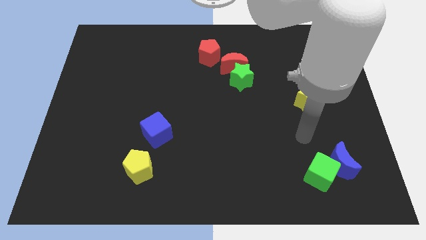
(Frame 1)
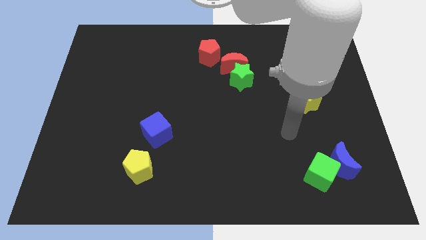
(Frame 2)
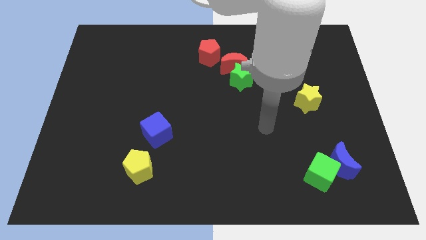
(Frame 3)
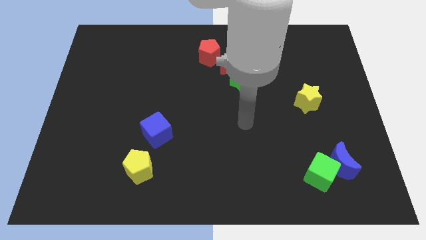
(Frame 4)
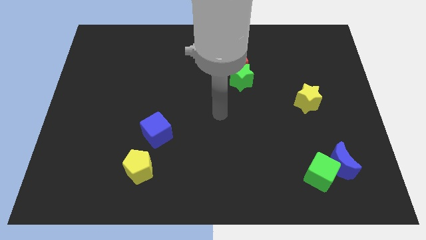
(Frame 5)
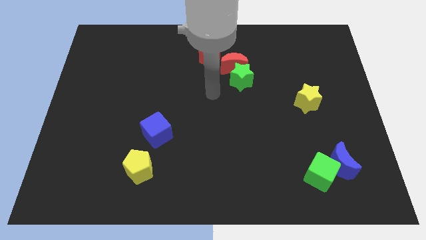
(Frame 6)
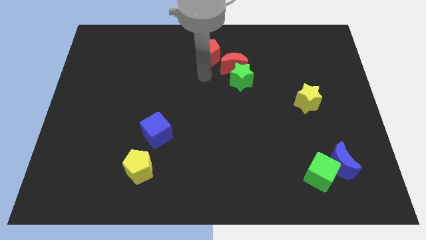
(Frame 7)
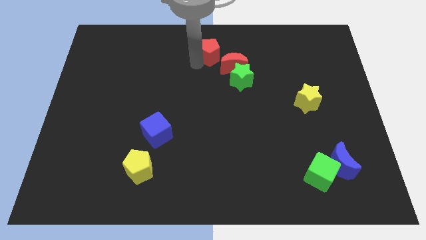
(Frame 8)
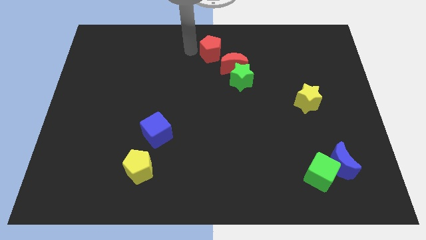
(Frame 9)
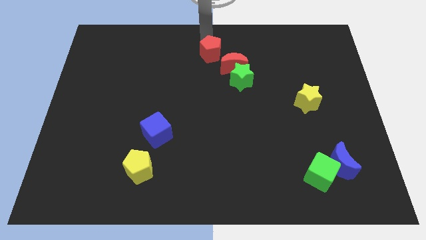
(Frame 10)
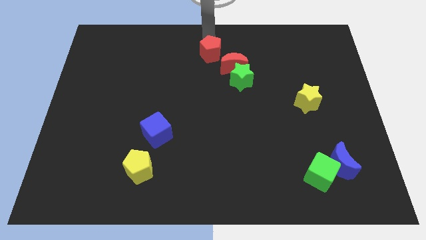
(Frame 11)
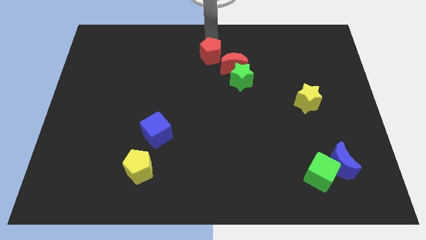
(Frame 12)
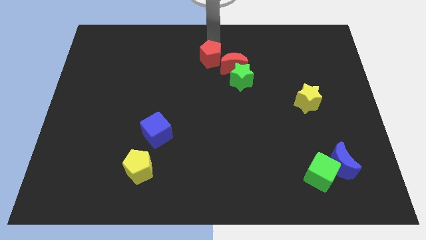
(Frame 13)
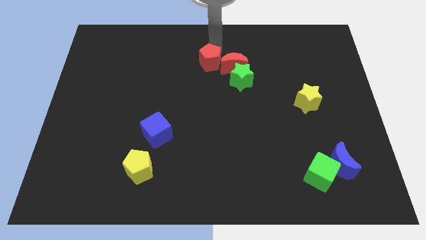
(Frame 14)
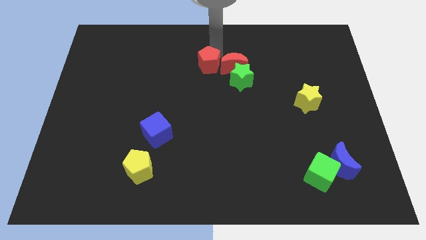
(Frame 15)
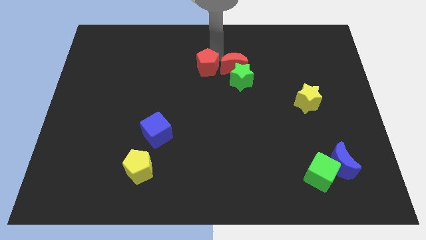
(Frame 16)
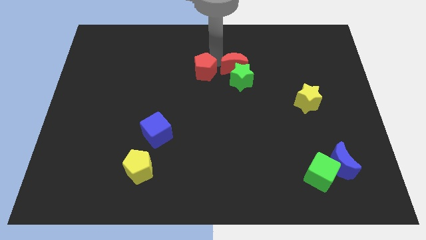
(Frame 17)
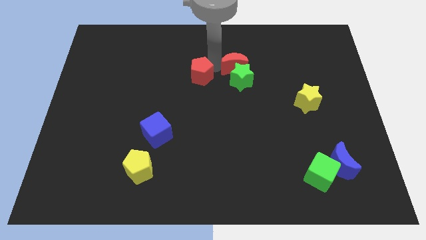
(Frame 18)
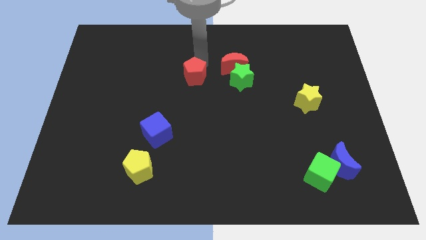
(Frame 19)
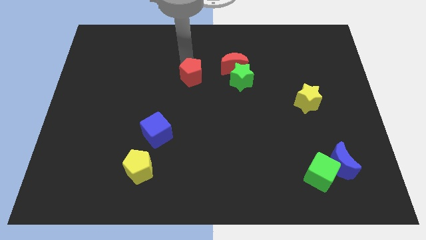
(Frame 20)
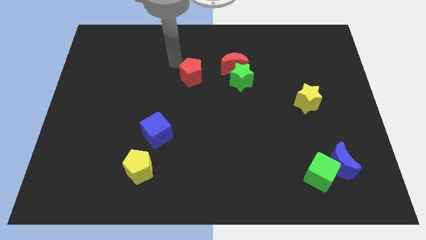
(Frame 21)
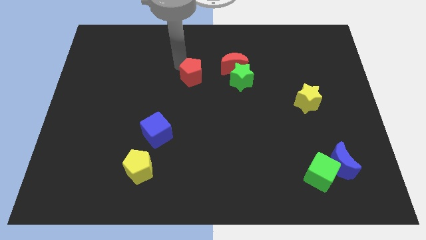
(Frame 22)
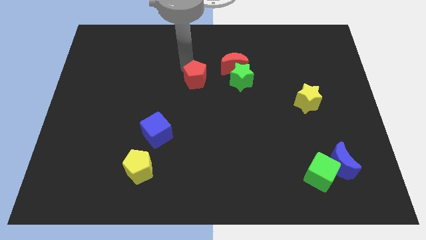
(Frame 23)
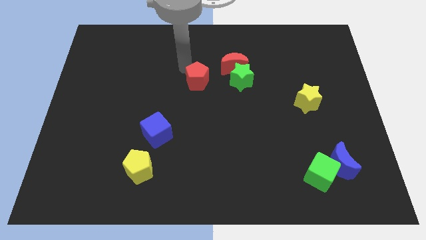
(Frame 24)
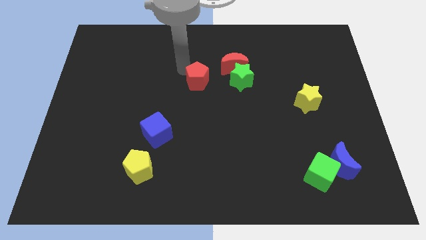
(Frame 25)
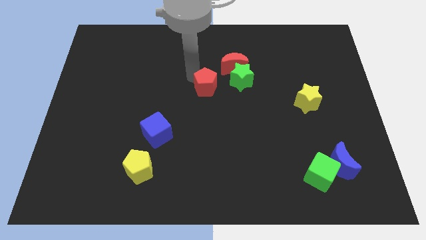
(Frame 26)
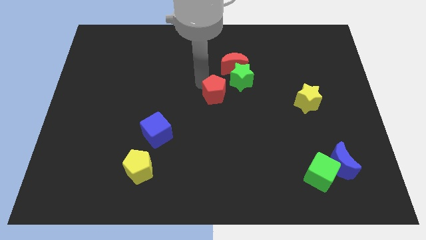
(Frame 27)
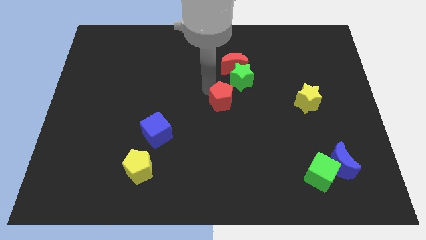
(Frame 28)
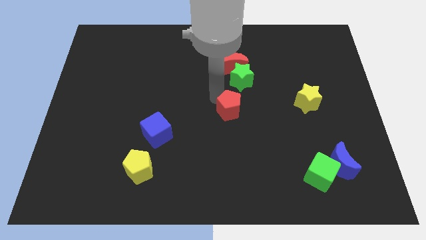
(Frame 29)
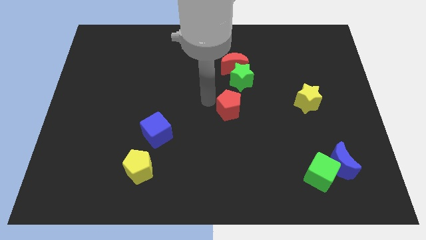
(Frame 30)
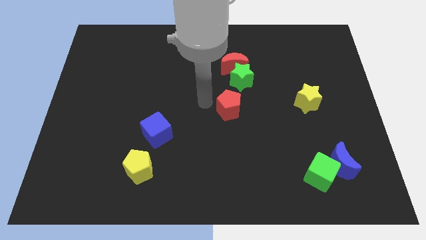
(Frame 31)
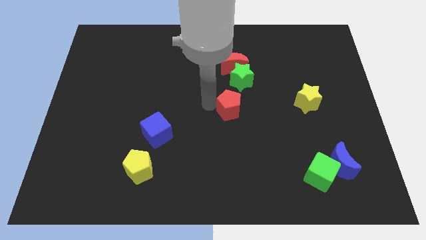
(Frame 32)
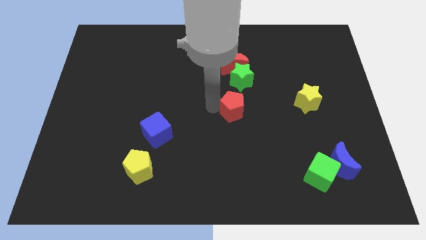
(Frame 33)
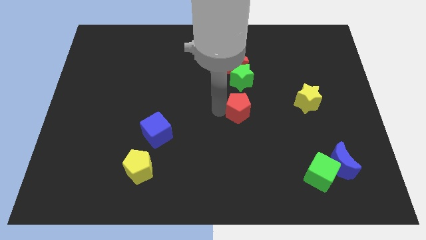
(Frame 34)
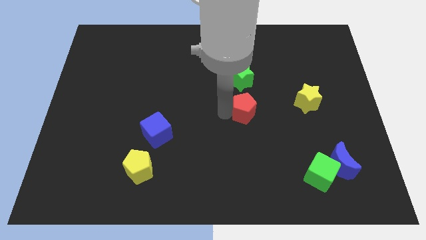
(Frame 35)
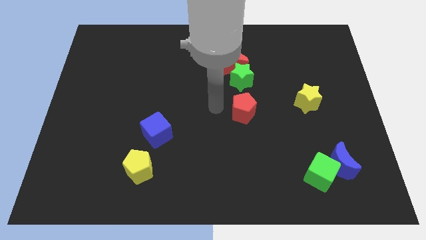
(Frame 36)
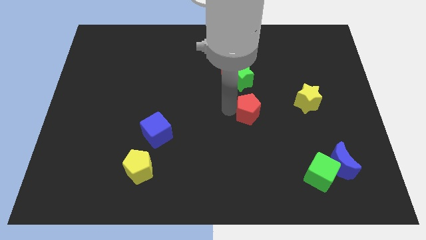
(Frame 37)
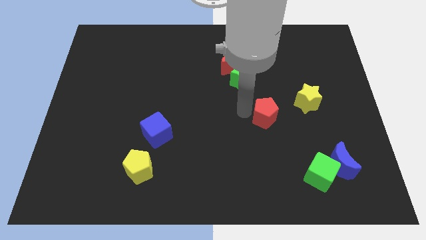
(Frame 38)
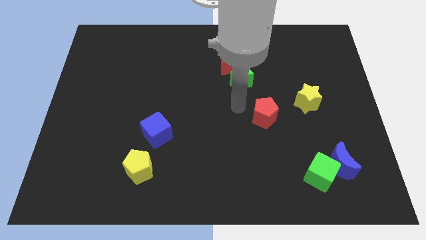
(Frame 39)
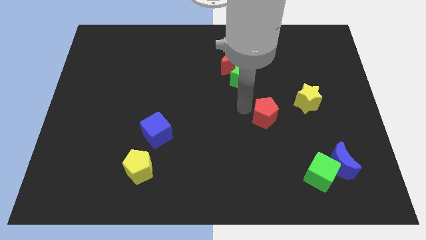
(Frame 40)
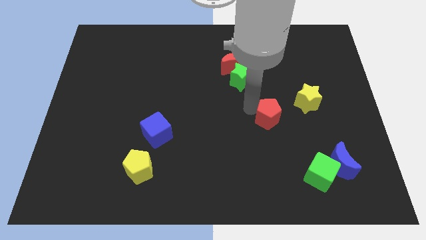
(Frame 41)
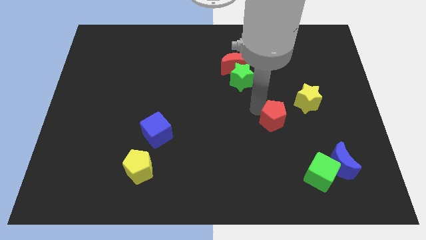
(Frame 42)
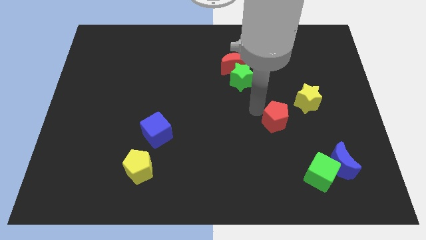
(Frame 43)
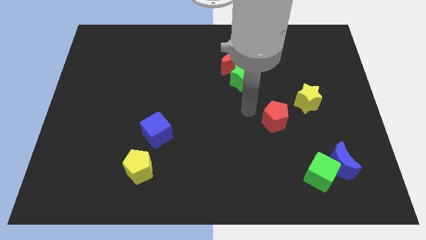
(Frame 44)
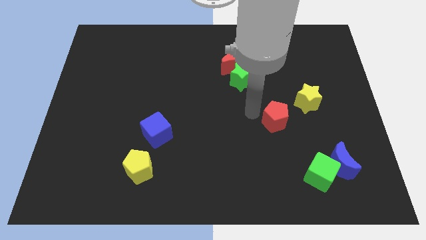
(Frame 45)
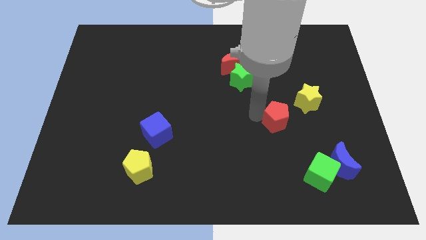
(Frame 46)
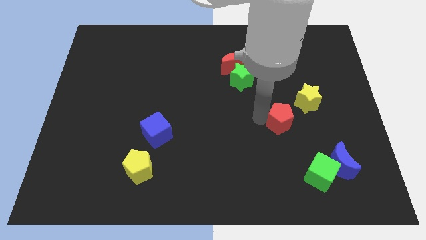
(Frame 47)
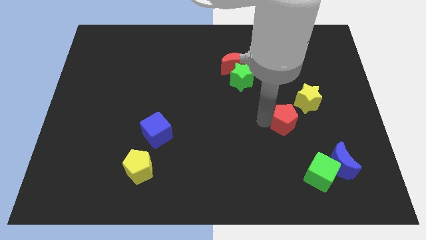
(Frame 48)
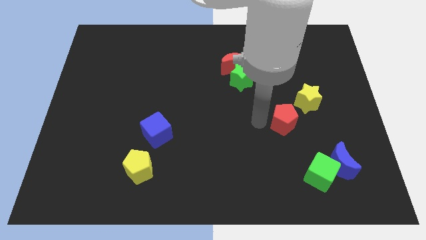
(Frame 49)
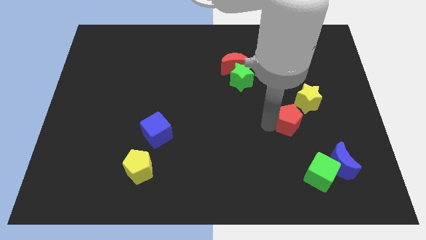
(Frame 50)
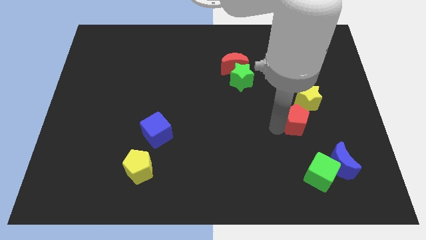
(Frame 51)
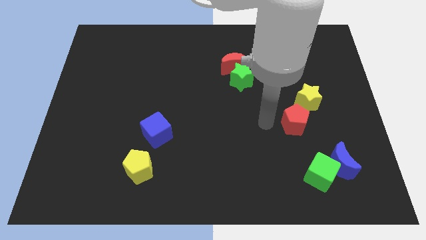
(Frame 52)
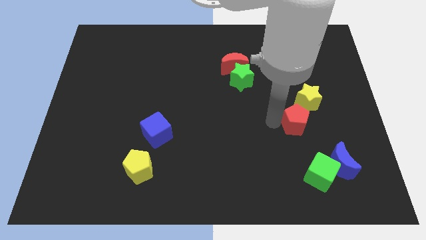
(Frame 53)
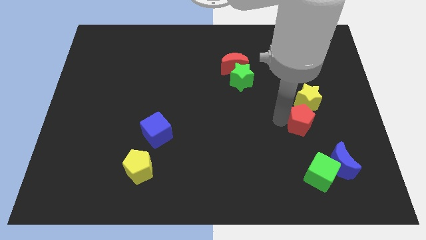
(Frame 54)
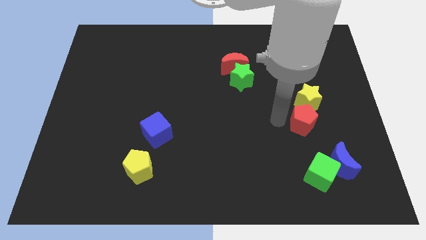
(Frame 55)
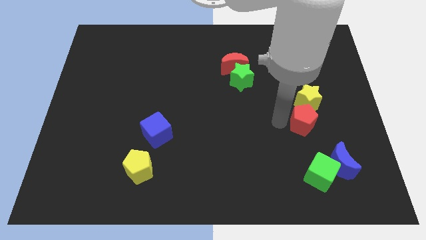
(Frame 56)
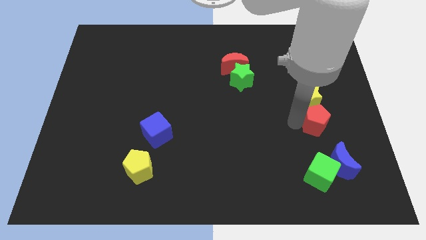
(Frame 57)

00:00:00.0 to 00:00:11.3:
move the red pentagon above the blue moon

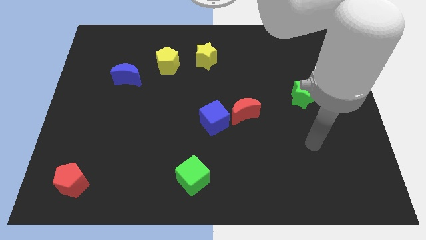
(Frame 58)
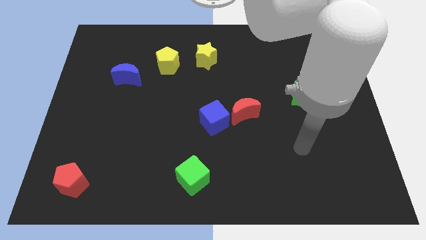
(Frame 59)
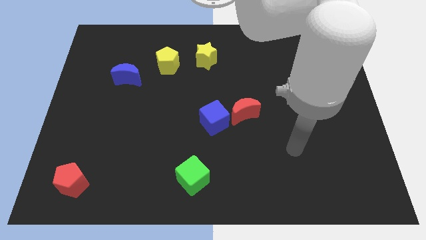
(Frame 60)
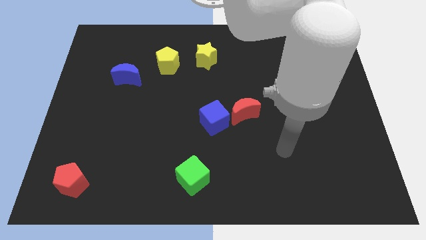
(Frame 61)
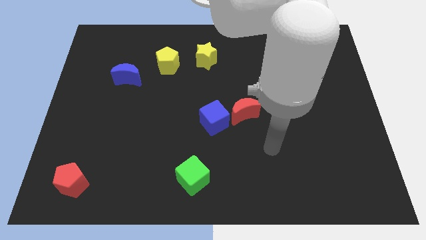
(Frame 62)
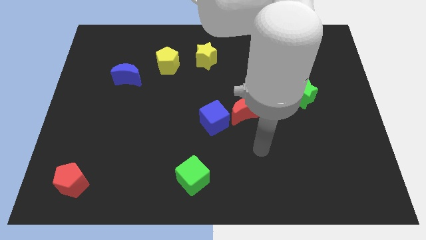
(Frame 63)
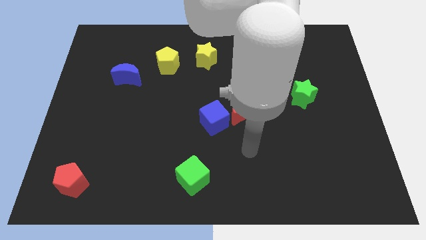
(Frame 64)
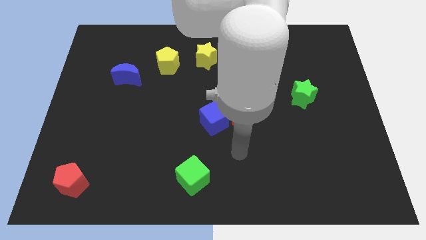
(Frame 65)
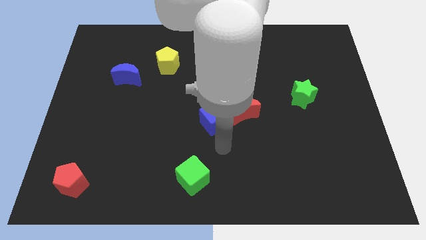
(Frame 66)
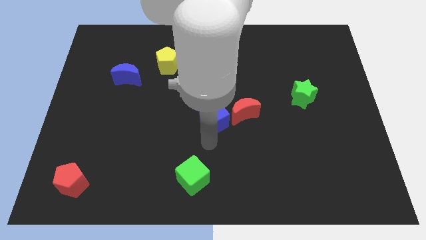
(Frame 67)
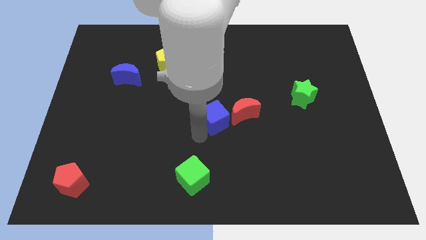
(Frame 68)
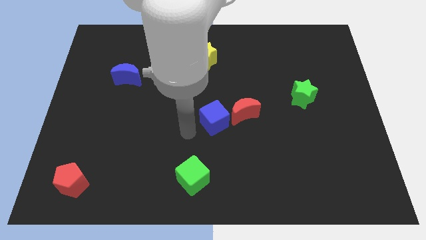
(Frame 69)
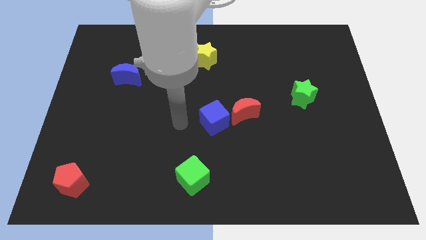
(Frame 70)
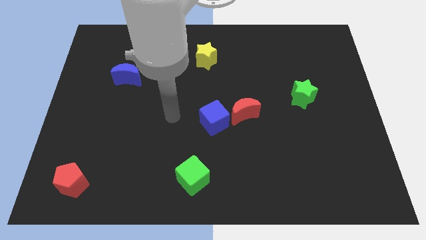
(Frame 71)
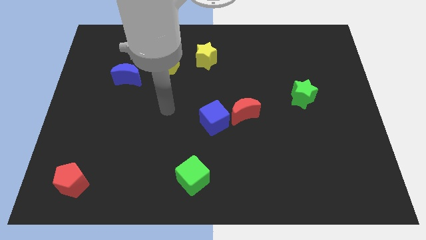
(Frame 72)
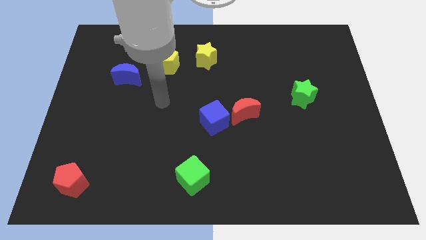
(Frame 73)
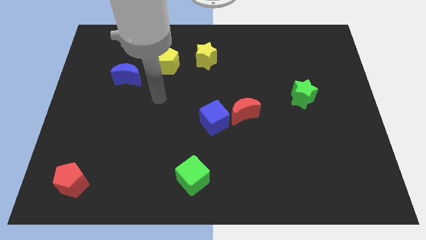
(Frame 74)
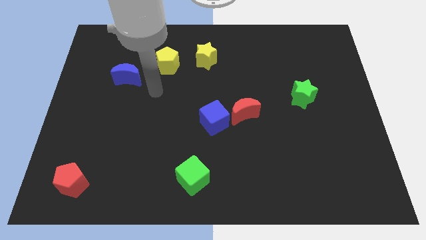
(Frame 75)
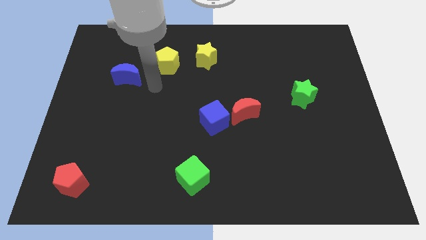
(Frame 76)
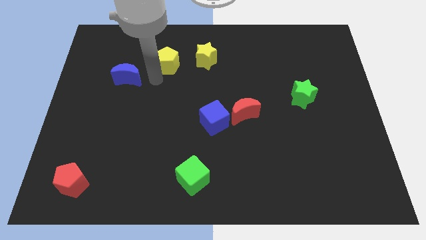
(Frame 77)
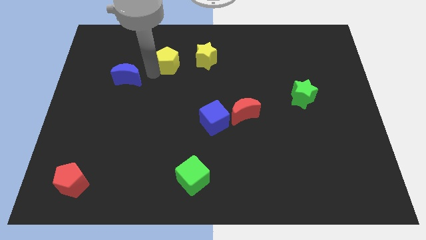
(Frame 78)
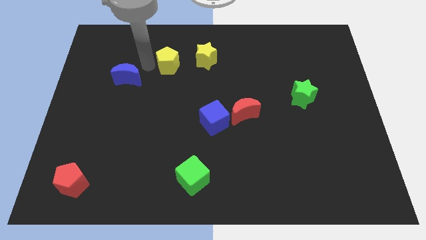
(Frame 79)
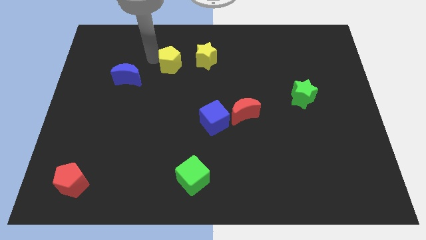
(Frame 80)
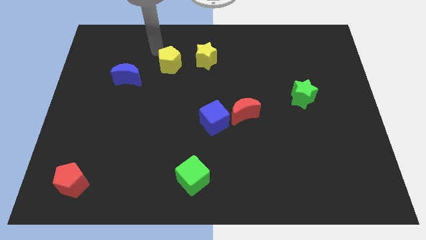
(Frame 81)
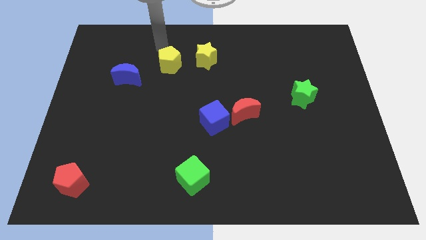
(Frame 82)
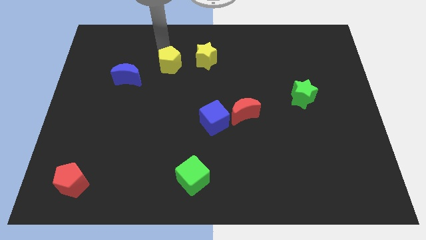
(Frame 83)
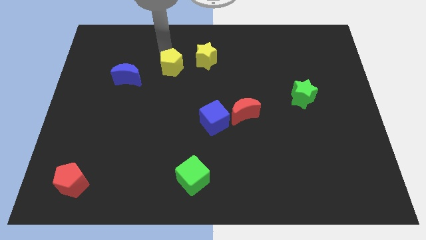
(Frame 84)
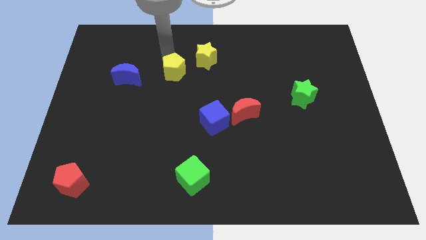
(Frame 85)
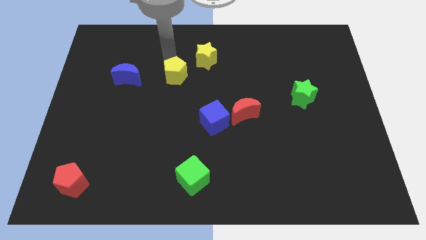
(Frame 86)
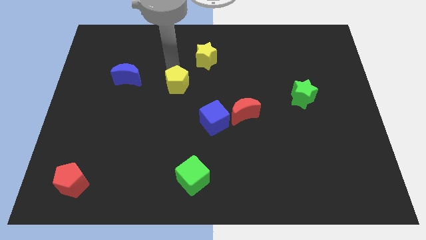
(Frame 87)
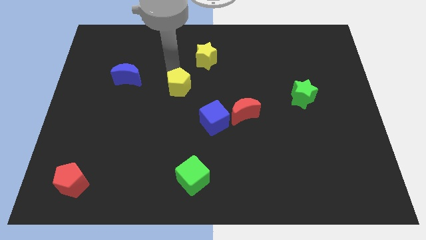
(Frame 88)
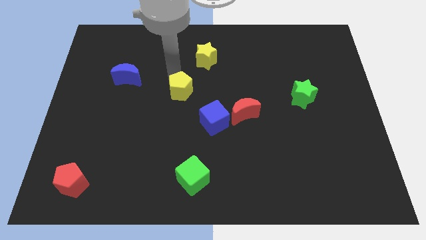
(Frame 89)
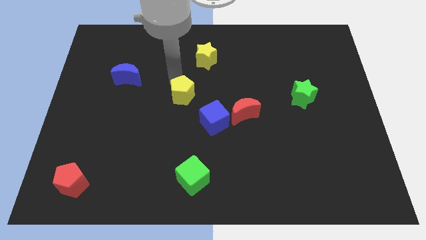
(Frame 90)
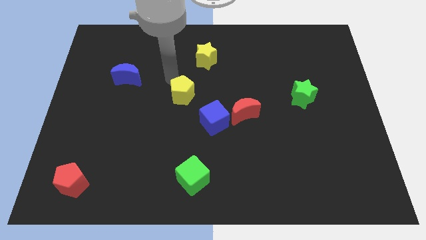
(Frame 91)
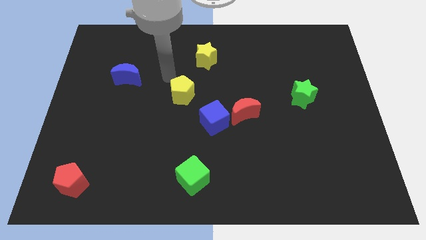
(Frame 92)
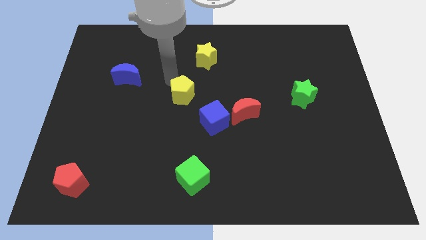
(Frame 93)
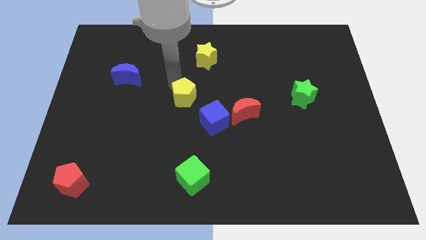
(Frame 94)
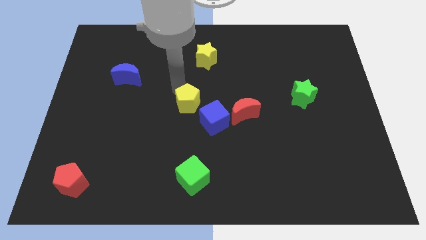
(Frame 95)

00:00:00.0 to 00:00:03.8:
put the yellow pentagon left of the red moon
